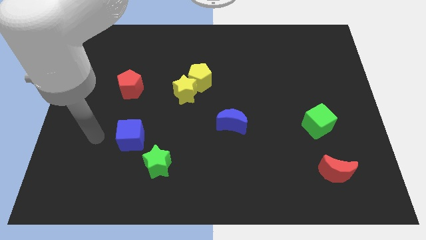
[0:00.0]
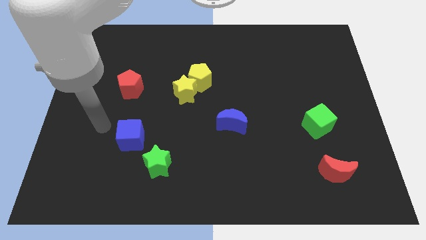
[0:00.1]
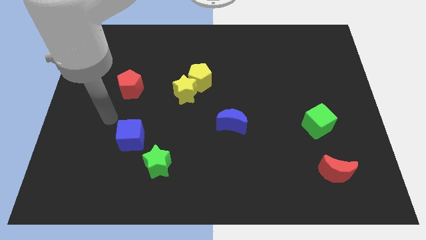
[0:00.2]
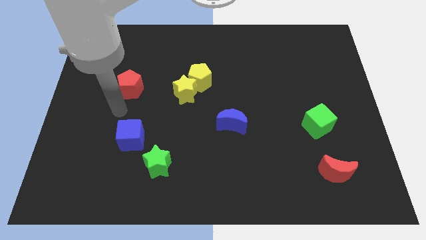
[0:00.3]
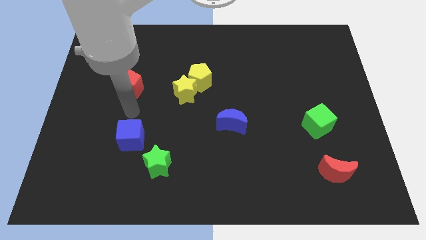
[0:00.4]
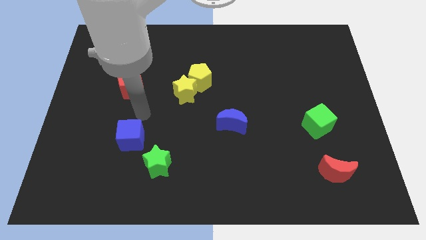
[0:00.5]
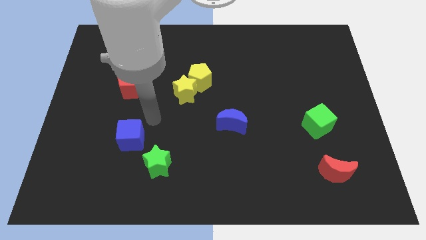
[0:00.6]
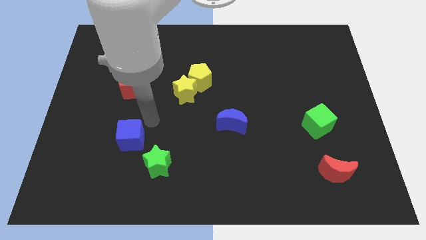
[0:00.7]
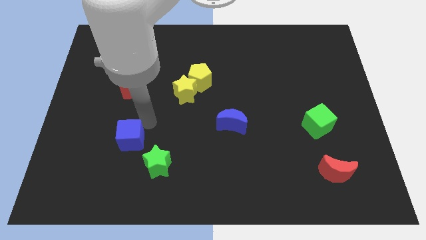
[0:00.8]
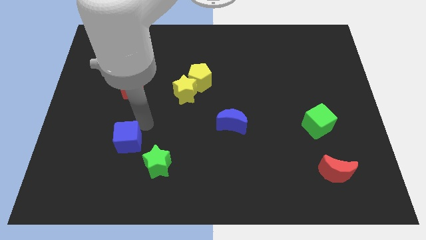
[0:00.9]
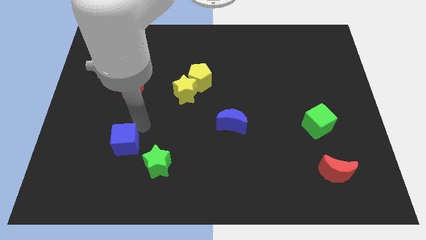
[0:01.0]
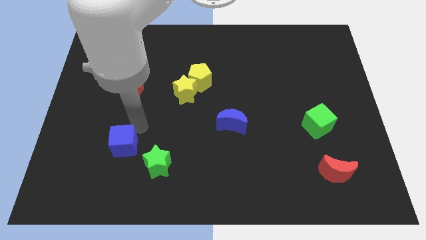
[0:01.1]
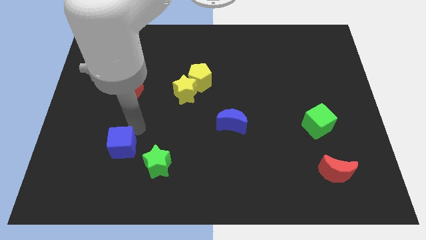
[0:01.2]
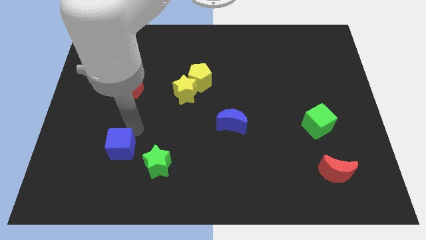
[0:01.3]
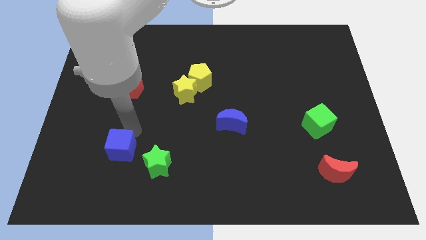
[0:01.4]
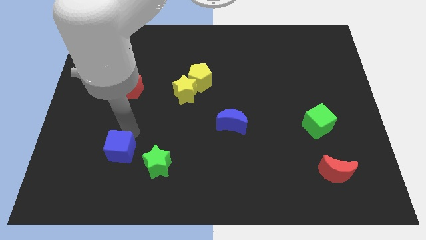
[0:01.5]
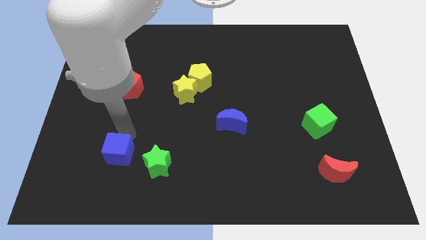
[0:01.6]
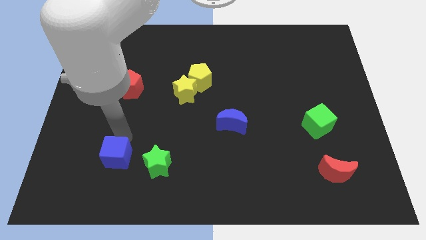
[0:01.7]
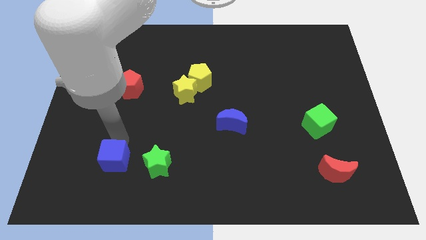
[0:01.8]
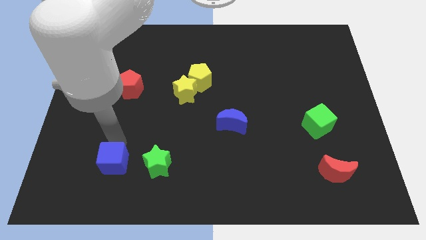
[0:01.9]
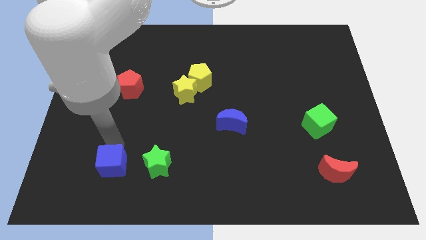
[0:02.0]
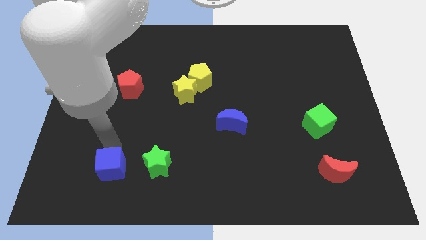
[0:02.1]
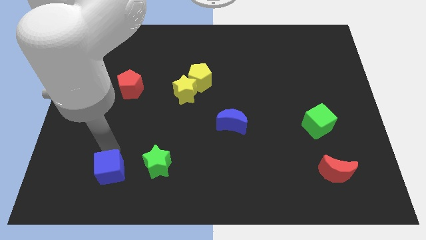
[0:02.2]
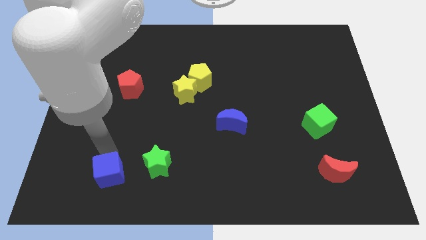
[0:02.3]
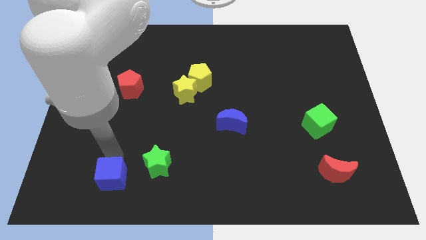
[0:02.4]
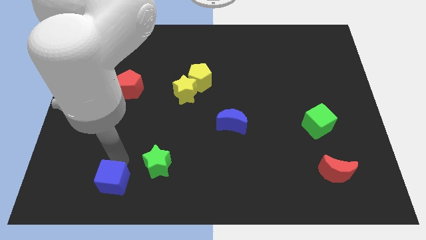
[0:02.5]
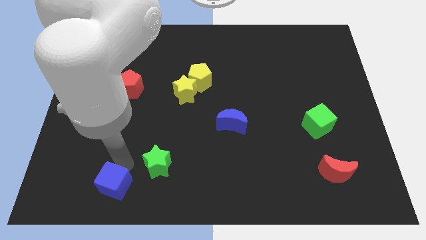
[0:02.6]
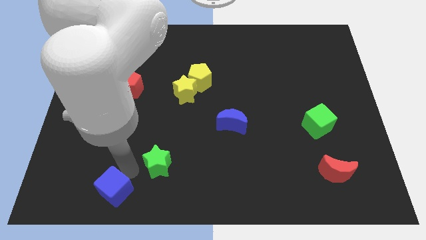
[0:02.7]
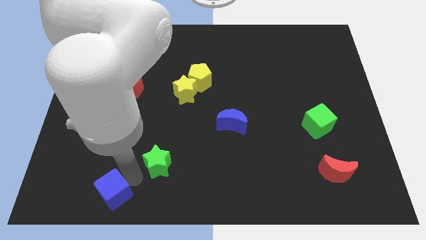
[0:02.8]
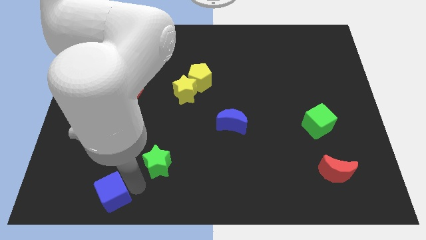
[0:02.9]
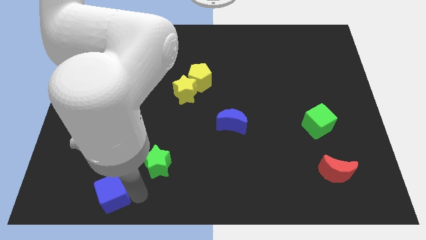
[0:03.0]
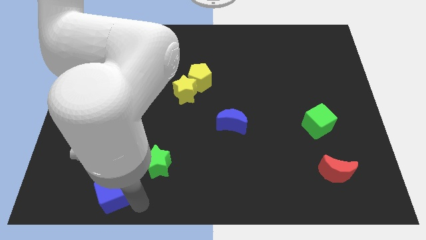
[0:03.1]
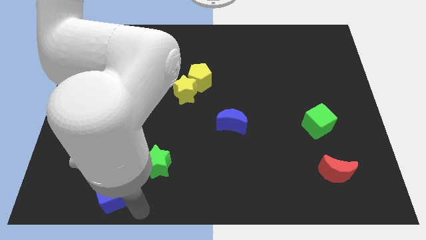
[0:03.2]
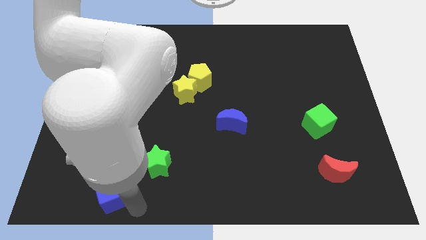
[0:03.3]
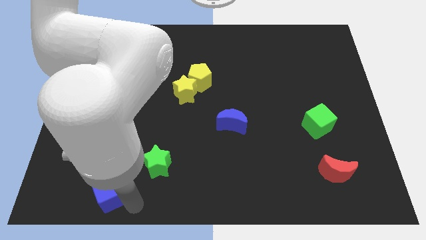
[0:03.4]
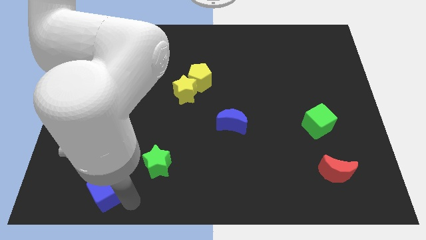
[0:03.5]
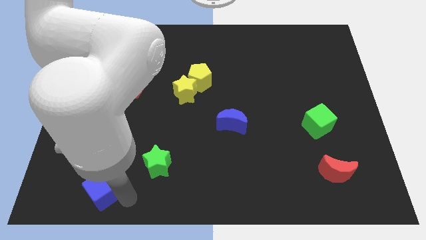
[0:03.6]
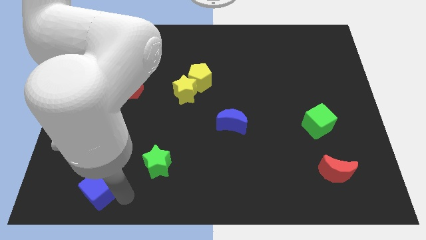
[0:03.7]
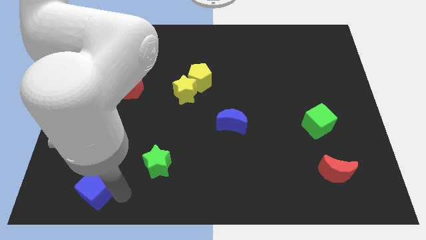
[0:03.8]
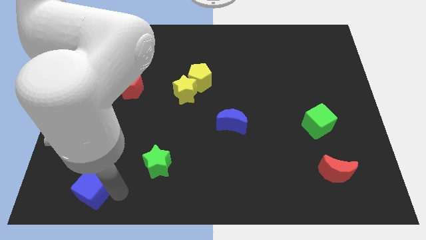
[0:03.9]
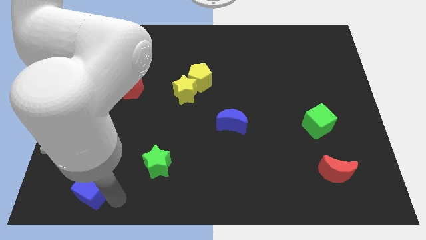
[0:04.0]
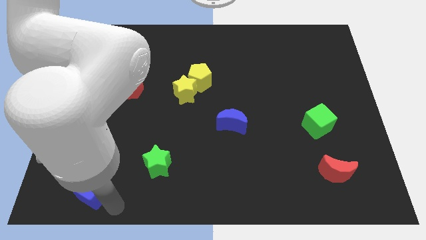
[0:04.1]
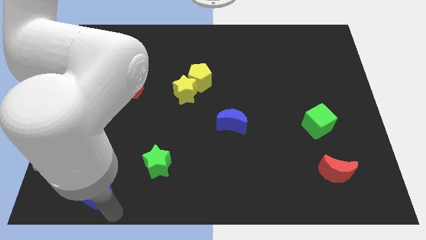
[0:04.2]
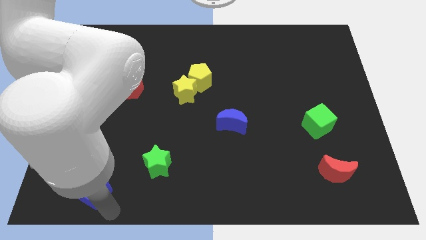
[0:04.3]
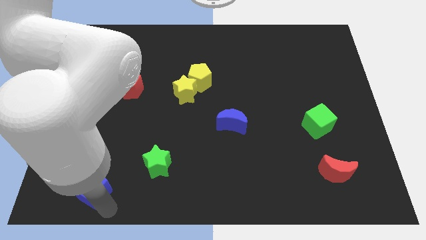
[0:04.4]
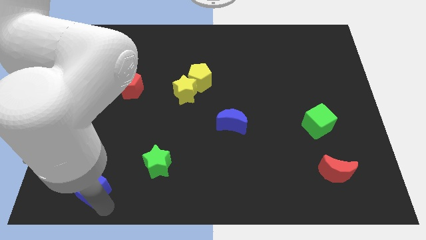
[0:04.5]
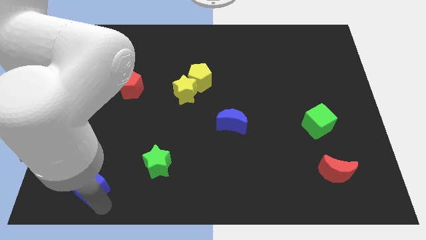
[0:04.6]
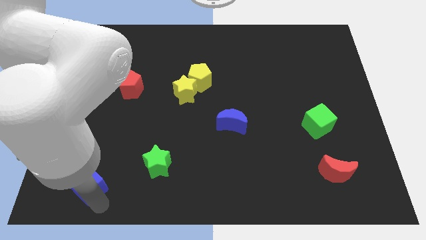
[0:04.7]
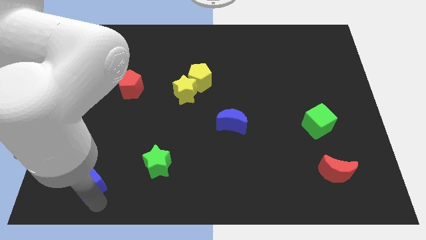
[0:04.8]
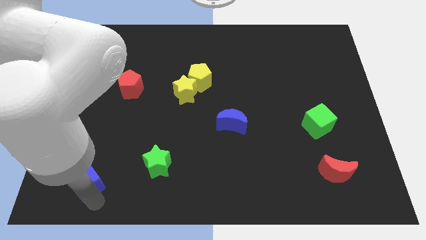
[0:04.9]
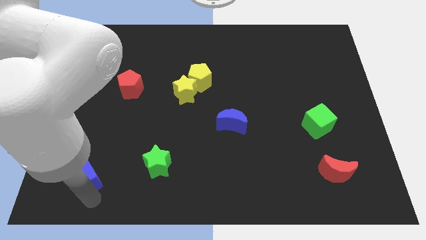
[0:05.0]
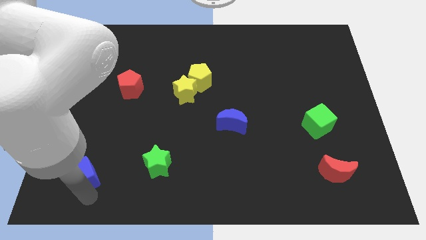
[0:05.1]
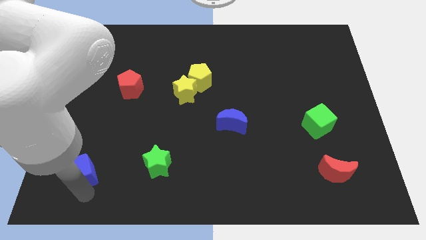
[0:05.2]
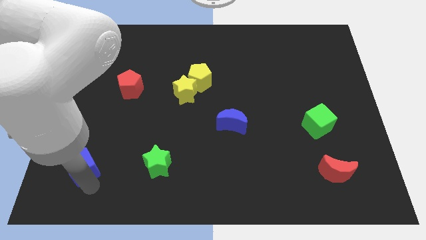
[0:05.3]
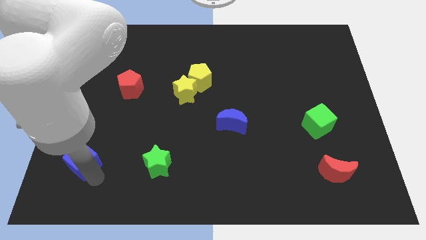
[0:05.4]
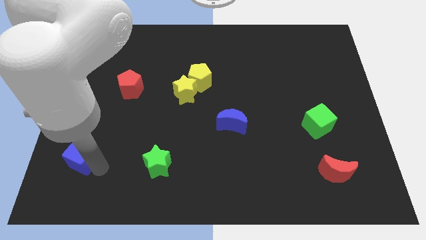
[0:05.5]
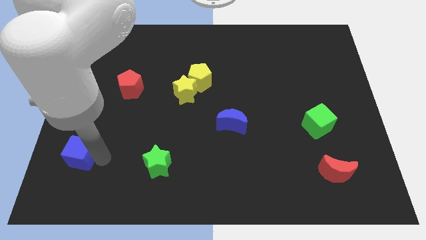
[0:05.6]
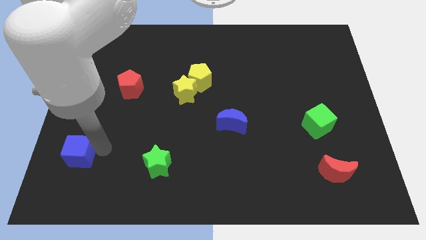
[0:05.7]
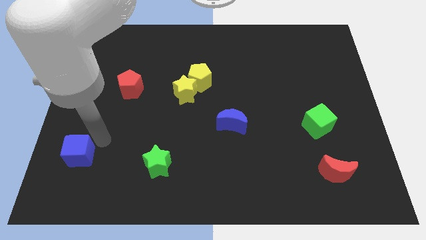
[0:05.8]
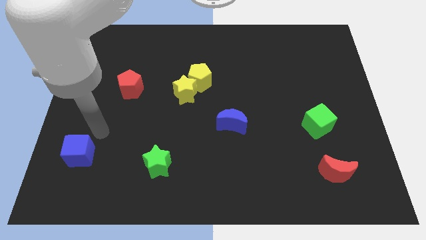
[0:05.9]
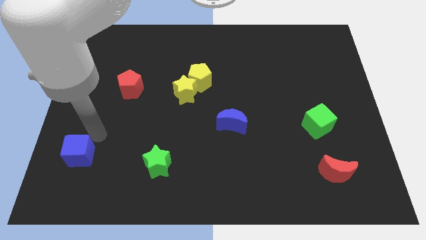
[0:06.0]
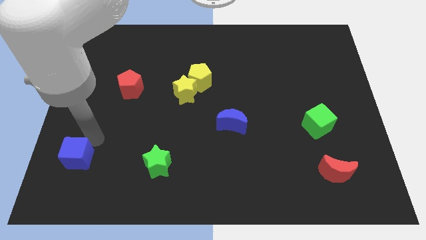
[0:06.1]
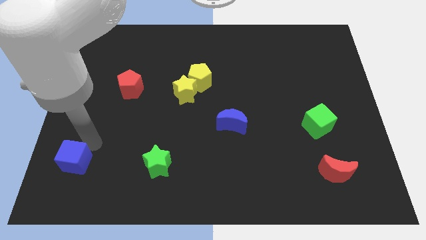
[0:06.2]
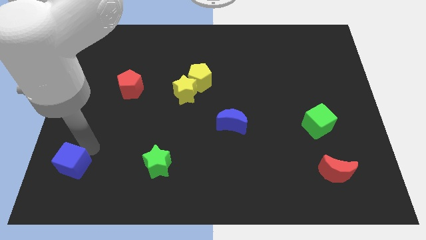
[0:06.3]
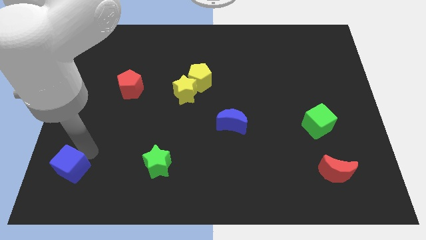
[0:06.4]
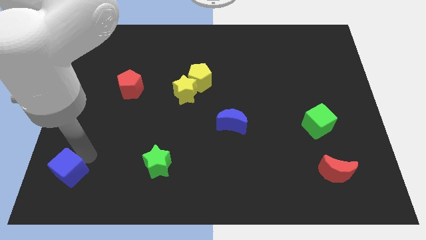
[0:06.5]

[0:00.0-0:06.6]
put the blue cube to the bottom left
